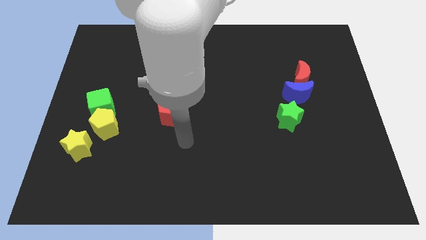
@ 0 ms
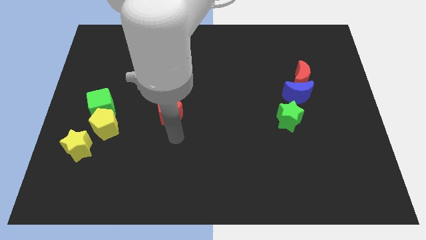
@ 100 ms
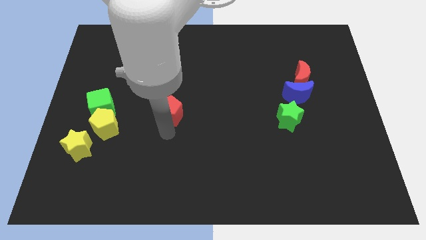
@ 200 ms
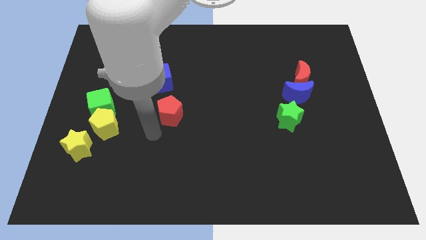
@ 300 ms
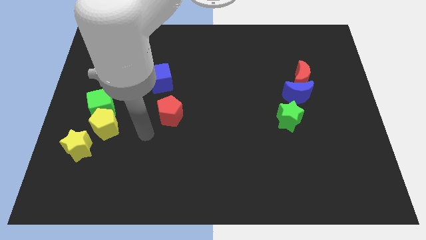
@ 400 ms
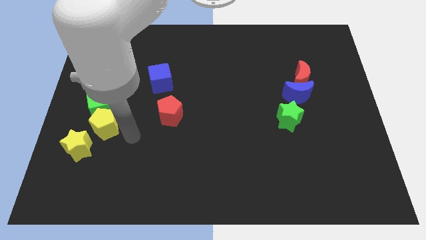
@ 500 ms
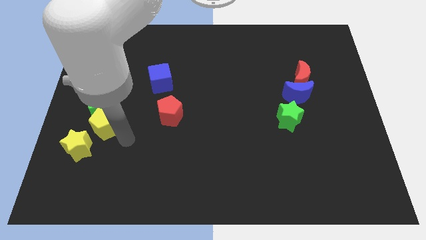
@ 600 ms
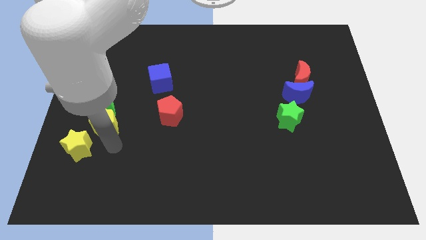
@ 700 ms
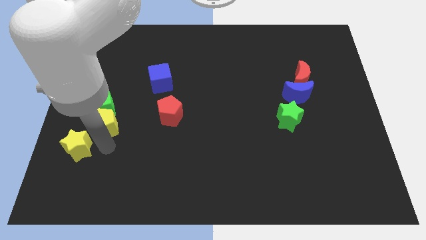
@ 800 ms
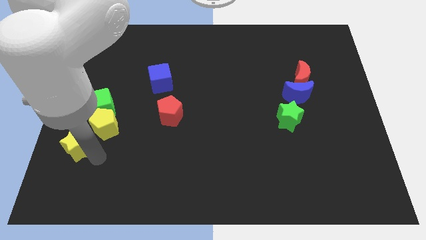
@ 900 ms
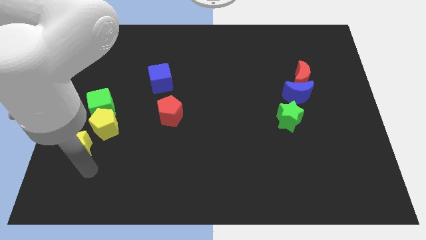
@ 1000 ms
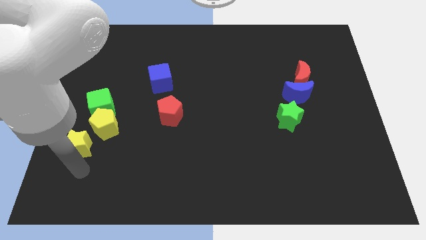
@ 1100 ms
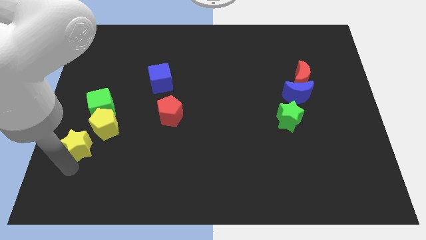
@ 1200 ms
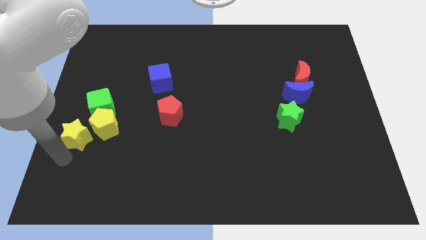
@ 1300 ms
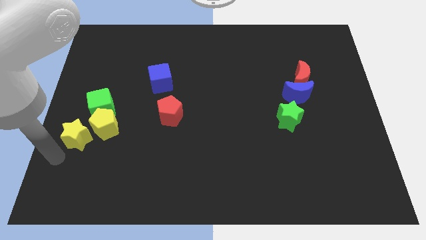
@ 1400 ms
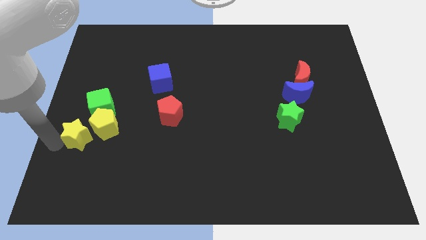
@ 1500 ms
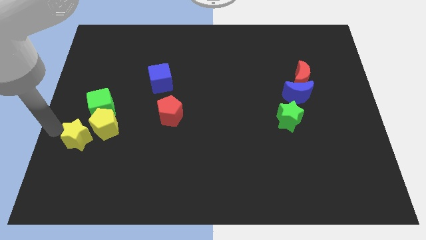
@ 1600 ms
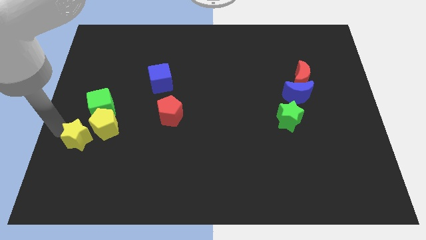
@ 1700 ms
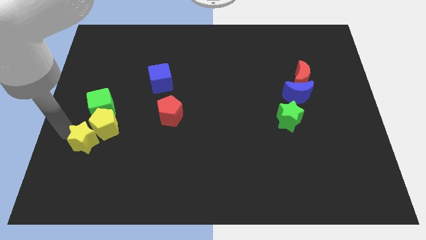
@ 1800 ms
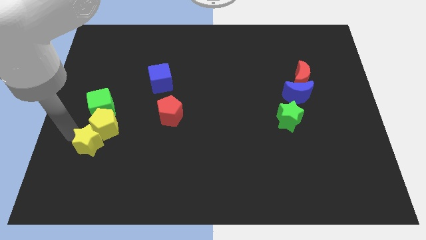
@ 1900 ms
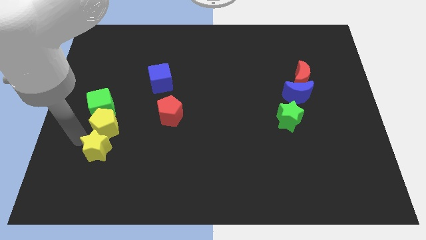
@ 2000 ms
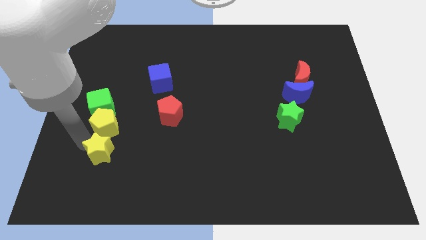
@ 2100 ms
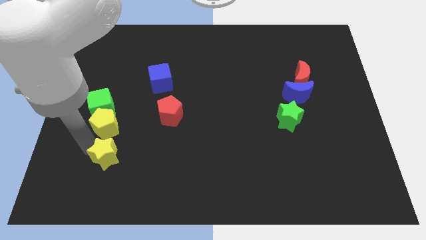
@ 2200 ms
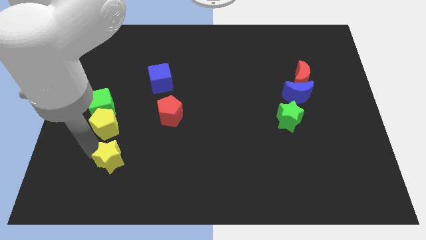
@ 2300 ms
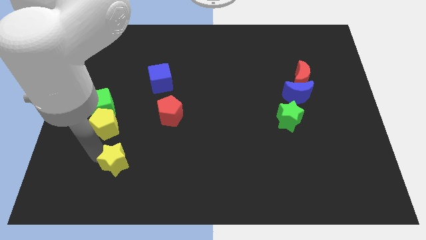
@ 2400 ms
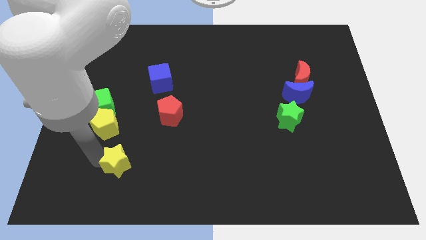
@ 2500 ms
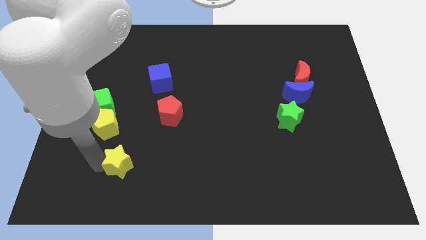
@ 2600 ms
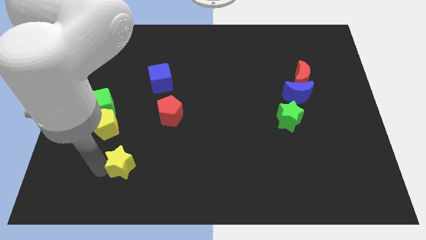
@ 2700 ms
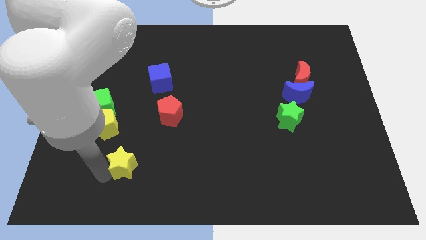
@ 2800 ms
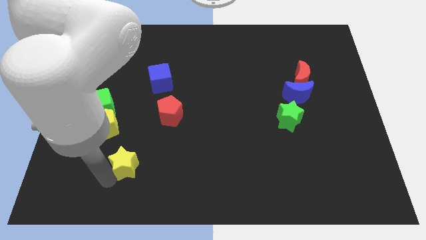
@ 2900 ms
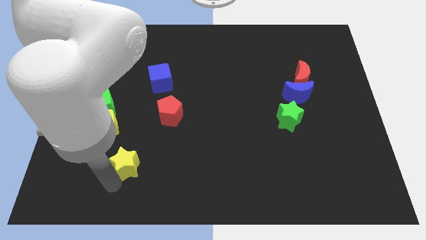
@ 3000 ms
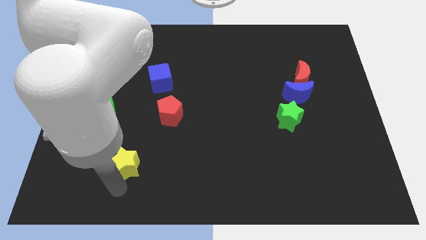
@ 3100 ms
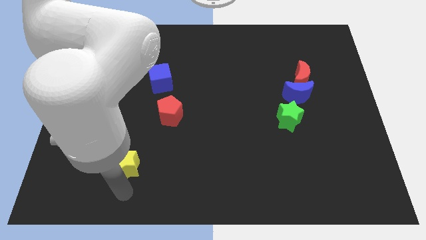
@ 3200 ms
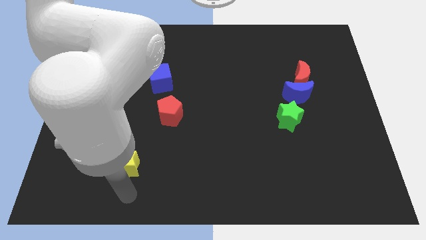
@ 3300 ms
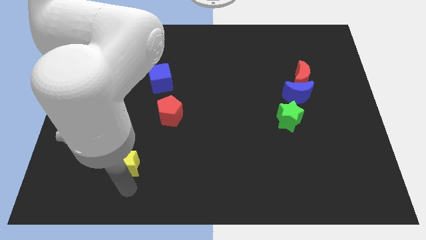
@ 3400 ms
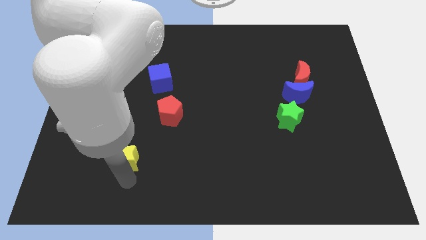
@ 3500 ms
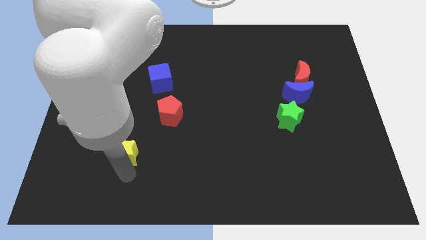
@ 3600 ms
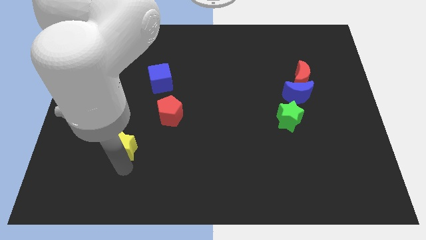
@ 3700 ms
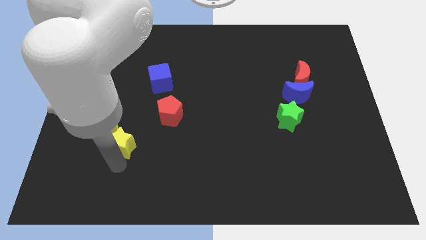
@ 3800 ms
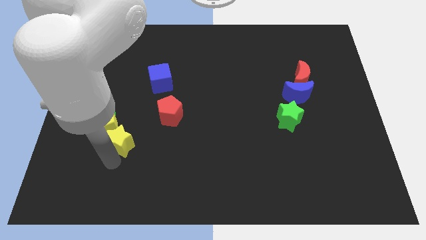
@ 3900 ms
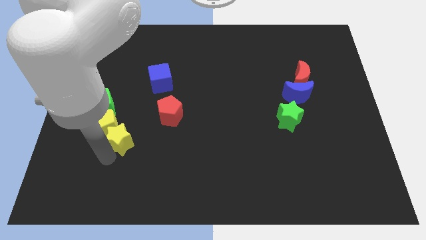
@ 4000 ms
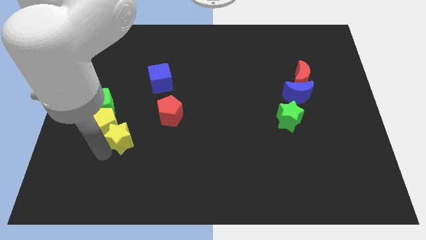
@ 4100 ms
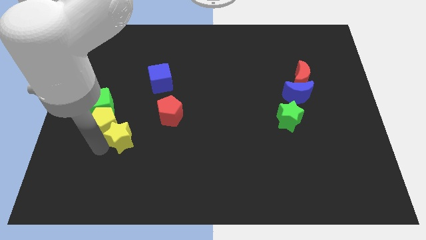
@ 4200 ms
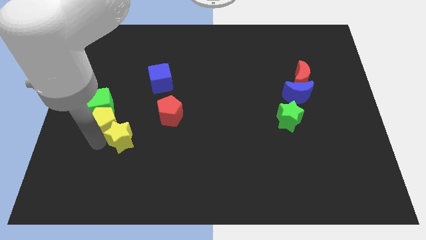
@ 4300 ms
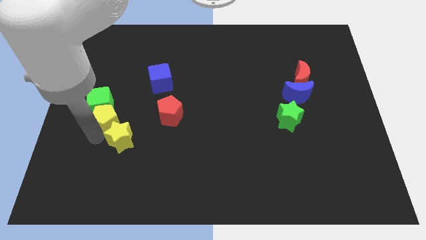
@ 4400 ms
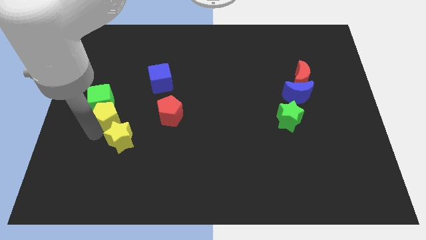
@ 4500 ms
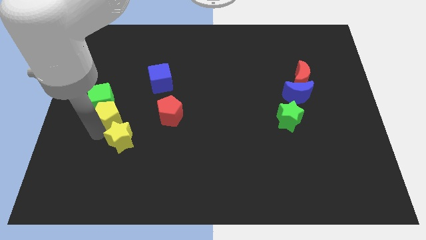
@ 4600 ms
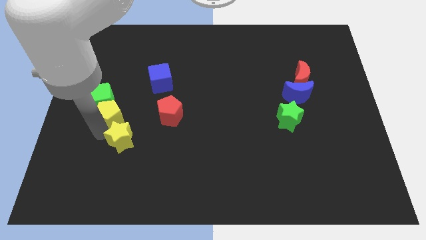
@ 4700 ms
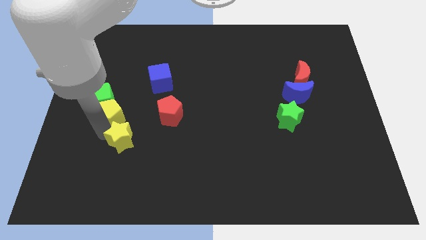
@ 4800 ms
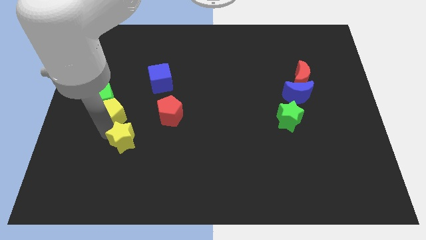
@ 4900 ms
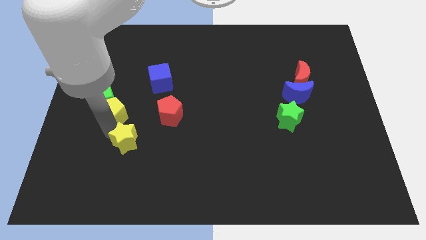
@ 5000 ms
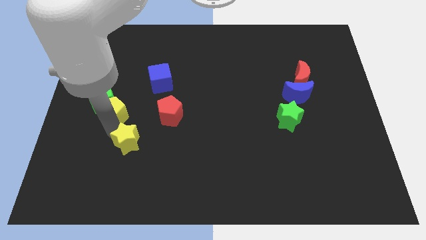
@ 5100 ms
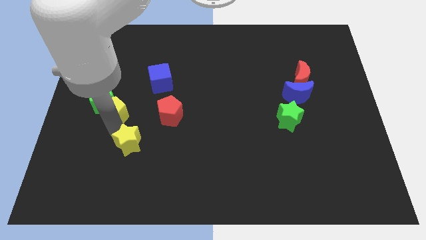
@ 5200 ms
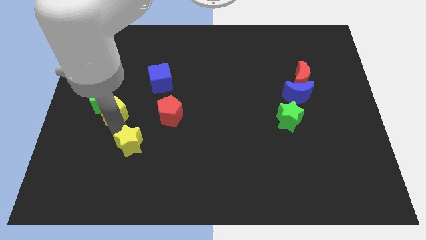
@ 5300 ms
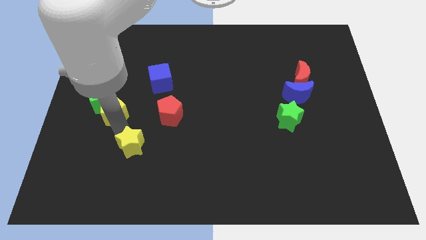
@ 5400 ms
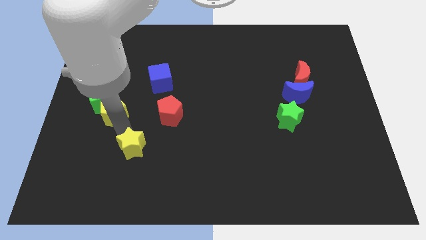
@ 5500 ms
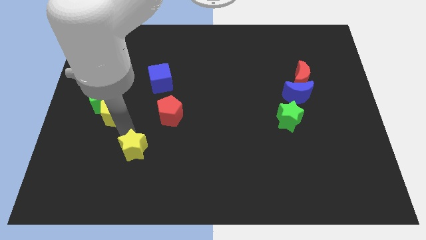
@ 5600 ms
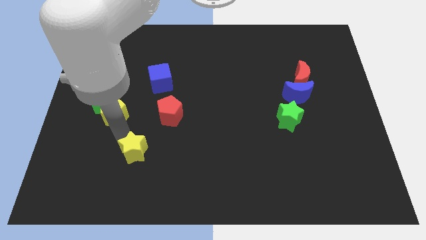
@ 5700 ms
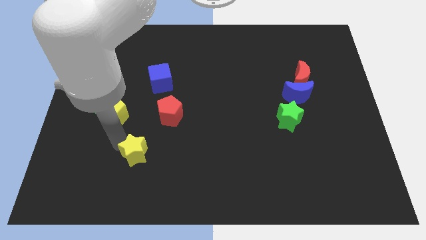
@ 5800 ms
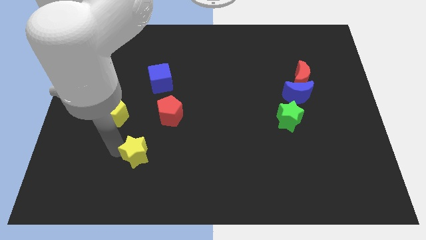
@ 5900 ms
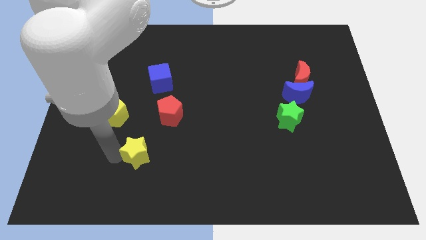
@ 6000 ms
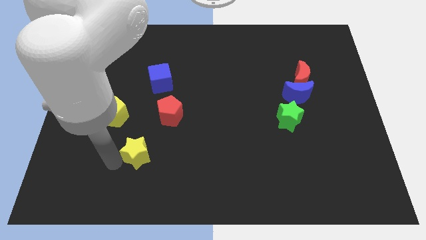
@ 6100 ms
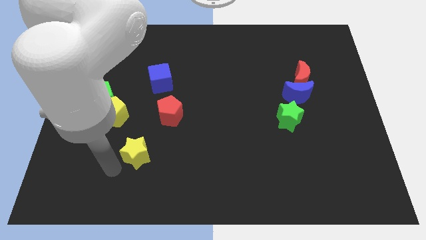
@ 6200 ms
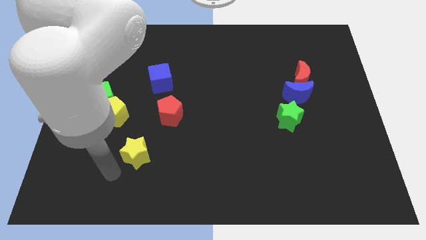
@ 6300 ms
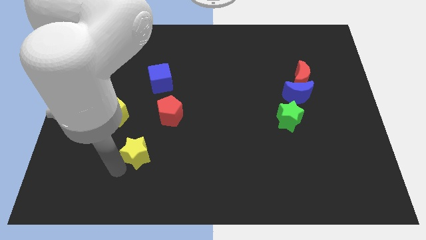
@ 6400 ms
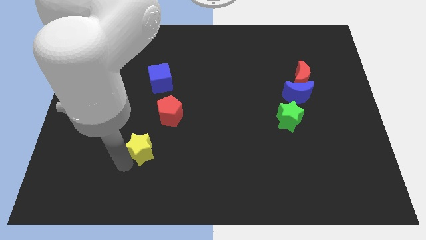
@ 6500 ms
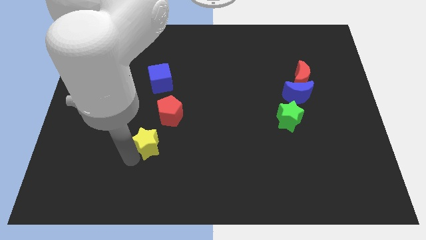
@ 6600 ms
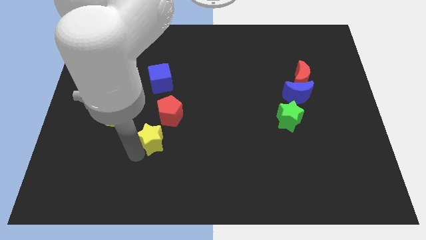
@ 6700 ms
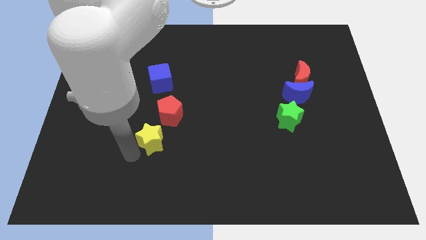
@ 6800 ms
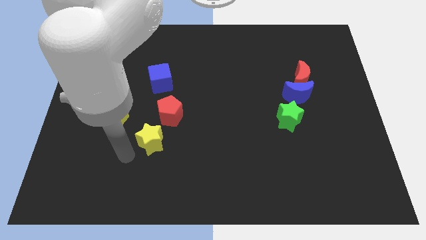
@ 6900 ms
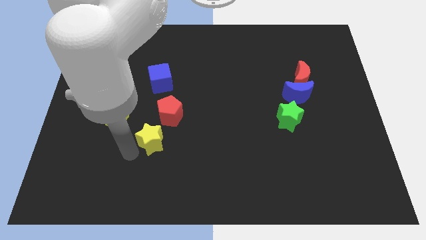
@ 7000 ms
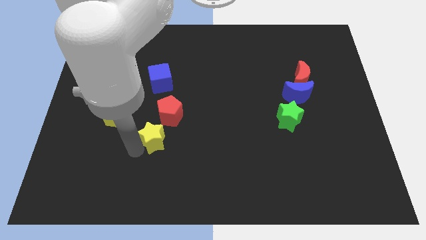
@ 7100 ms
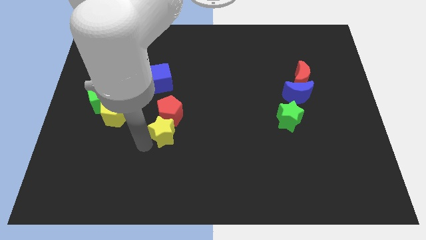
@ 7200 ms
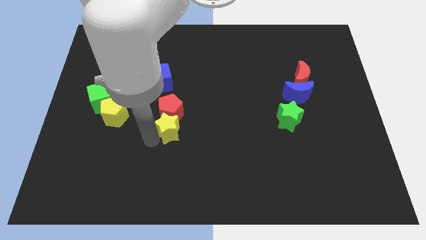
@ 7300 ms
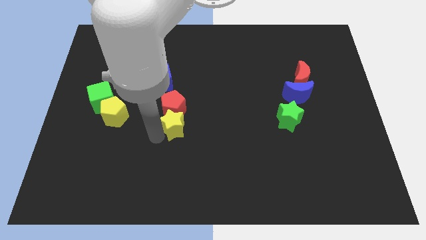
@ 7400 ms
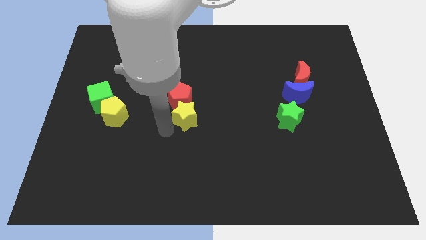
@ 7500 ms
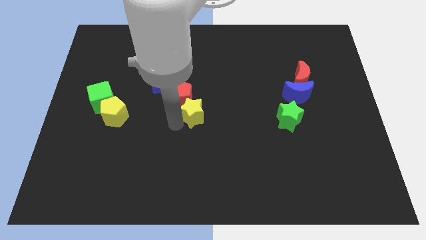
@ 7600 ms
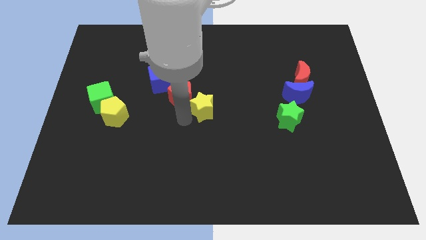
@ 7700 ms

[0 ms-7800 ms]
slide the yellow star to the right side of the red pentagon
